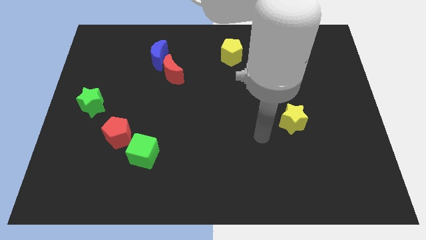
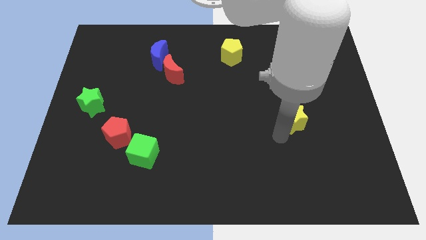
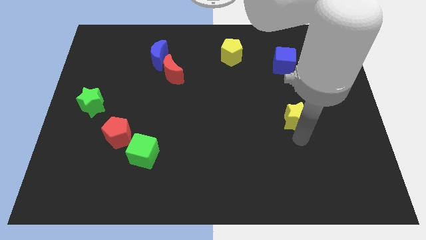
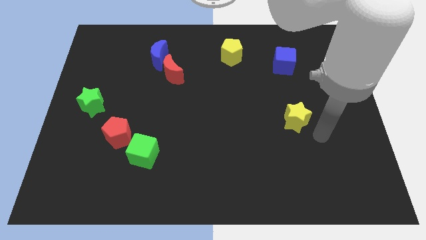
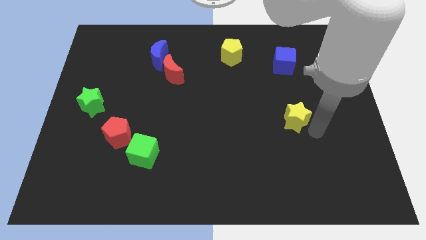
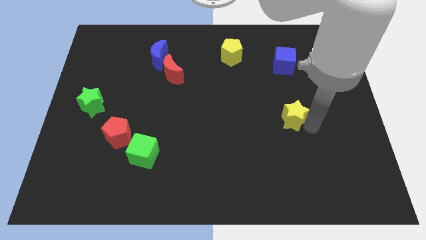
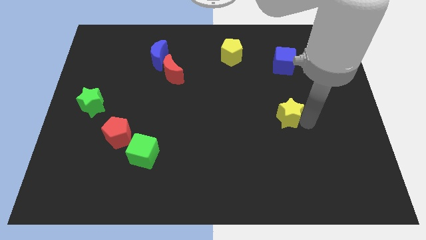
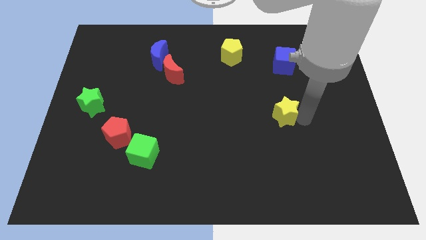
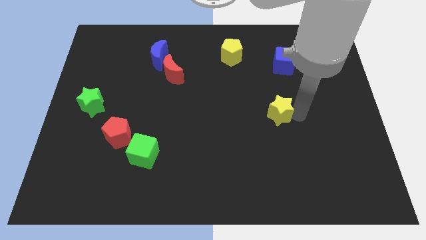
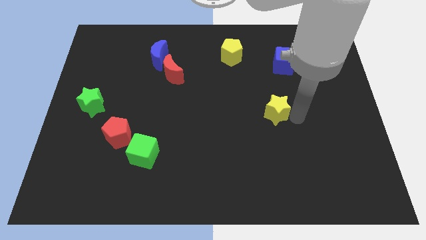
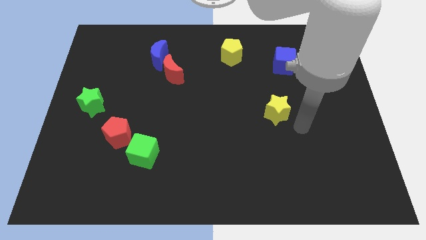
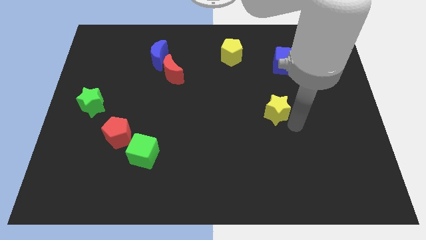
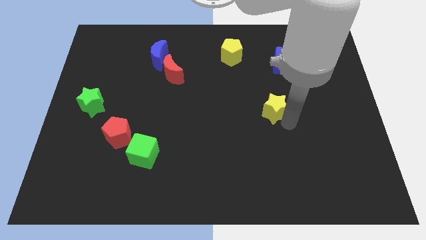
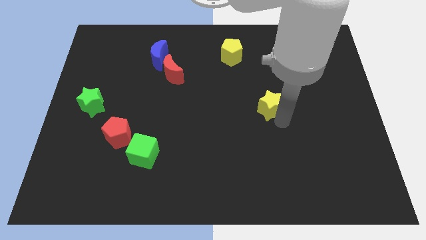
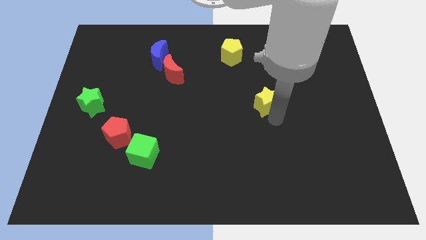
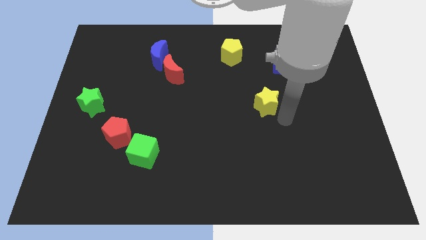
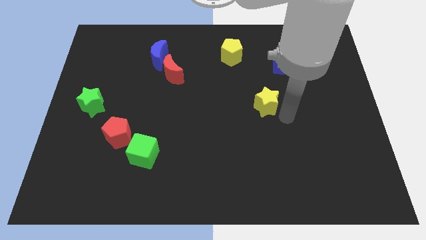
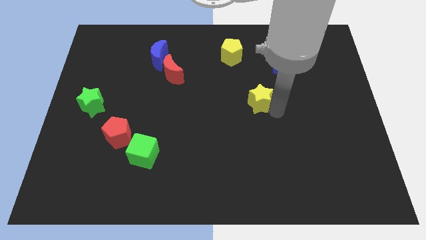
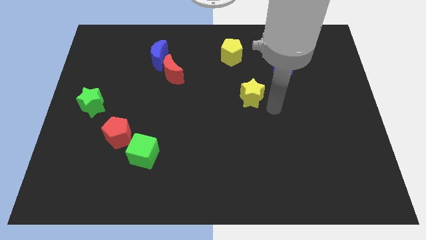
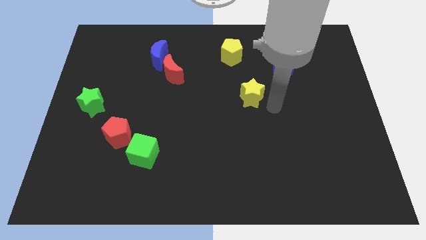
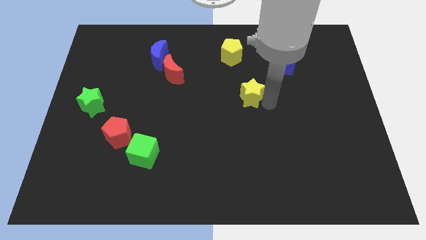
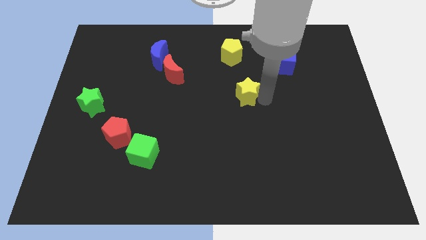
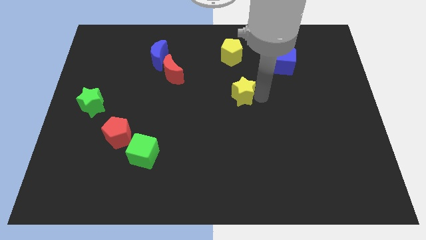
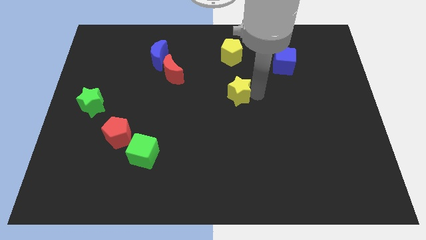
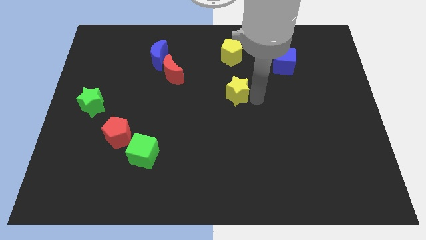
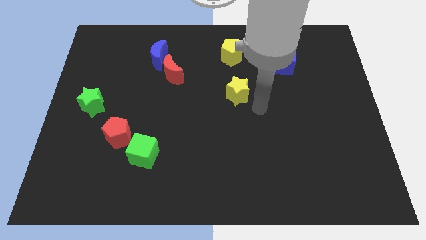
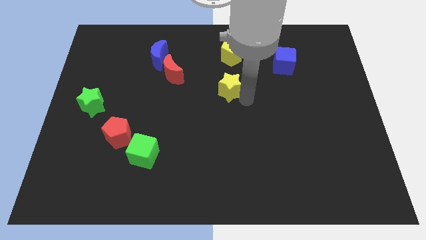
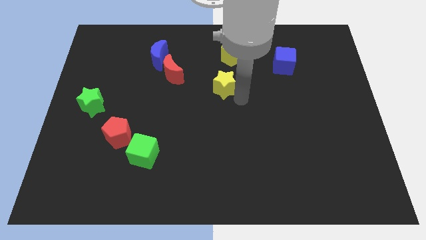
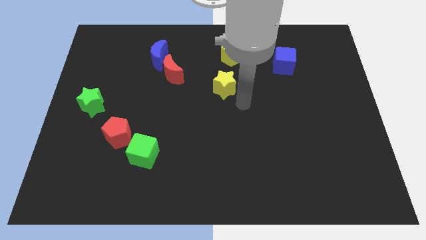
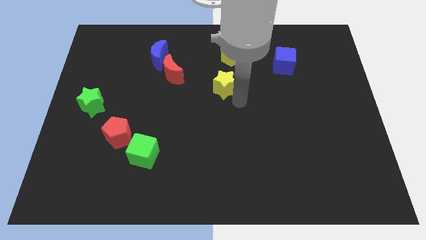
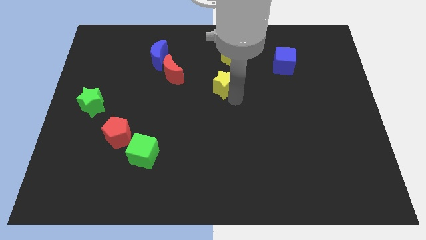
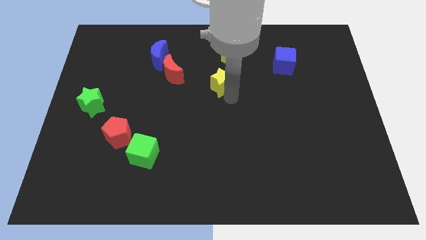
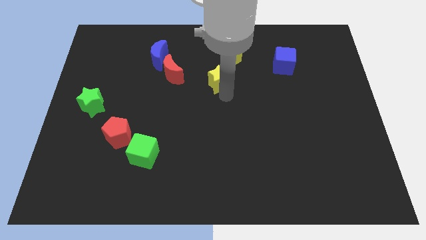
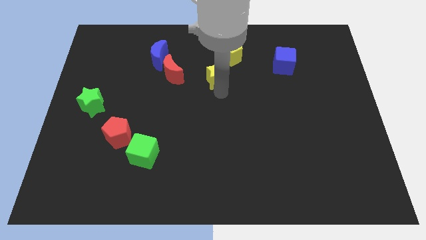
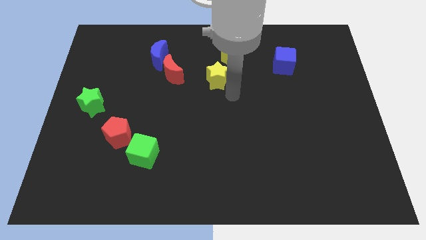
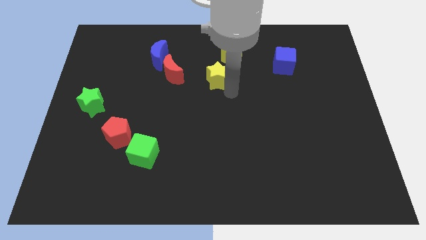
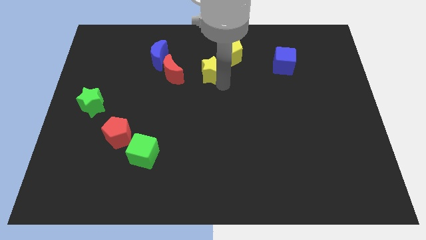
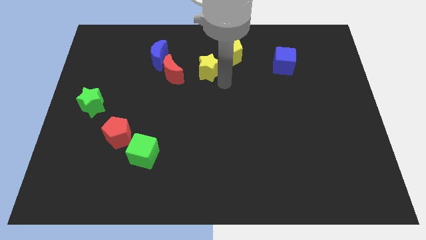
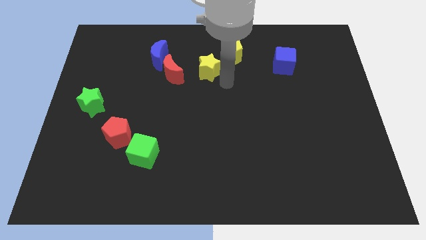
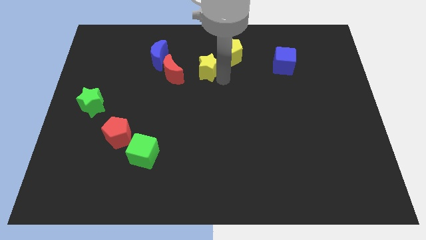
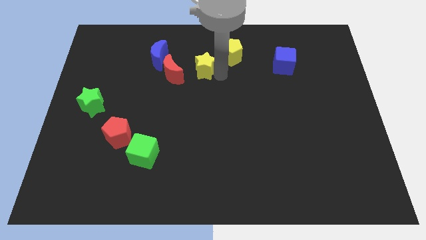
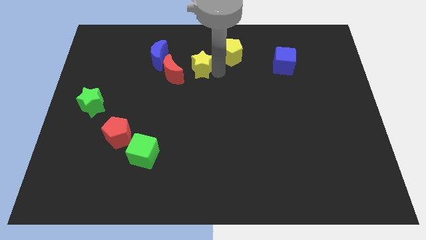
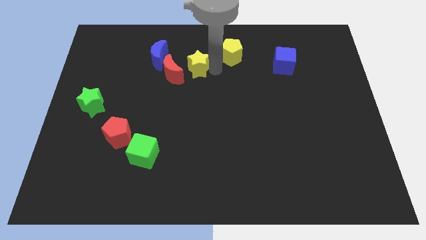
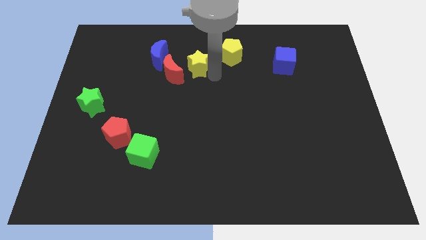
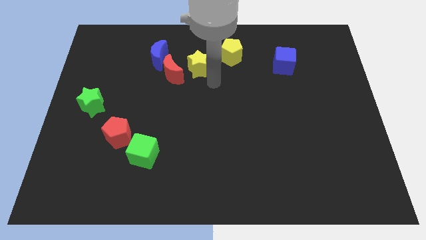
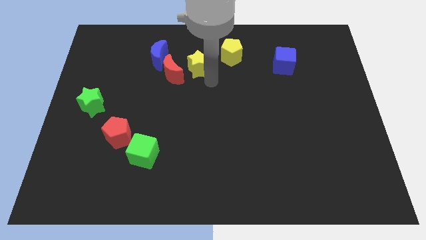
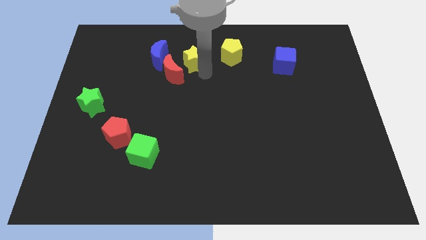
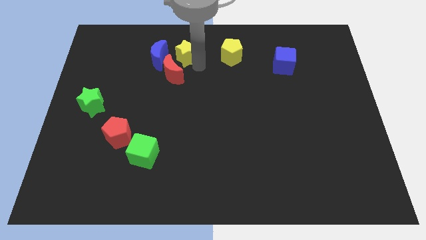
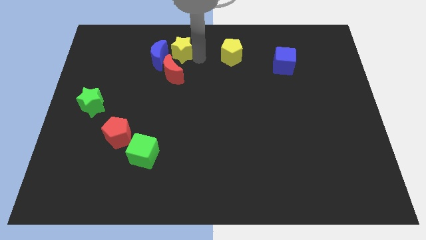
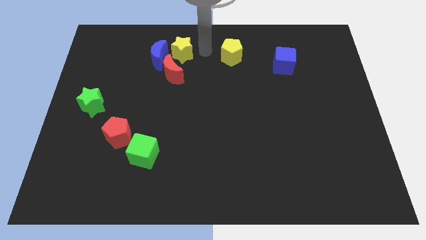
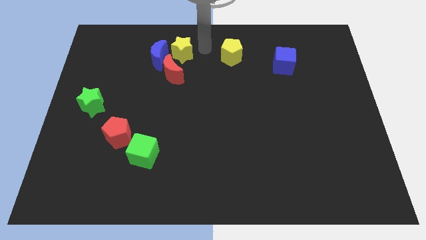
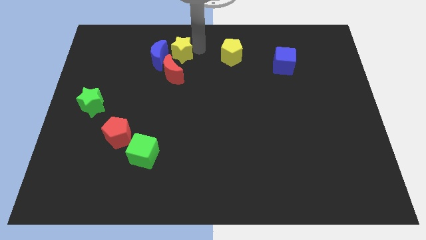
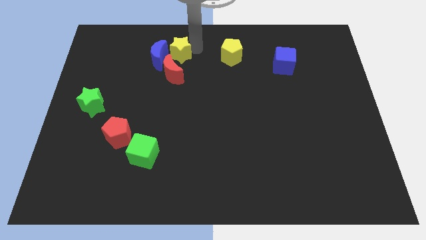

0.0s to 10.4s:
put the yellow star towards the blue moon

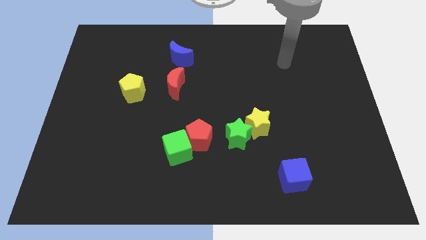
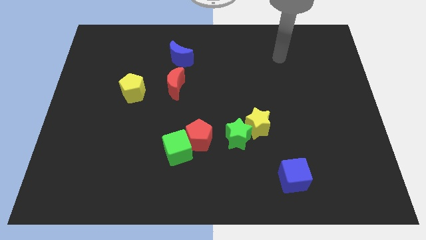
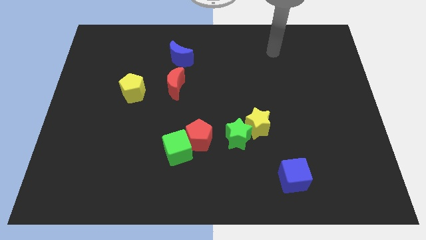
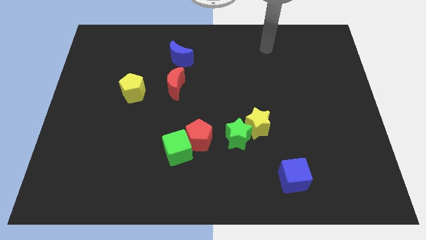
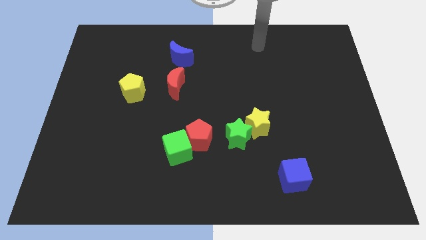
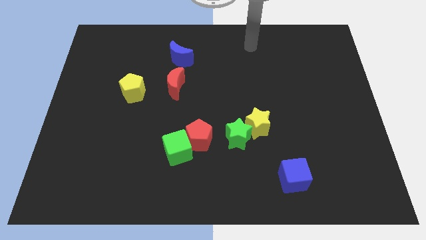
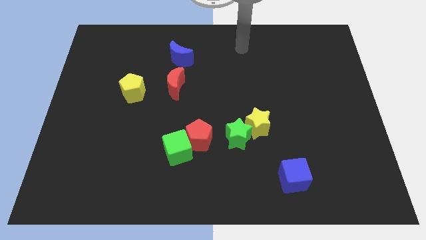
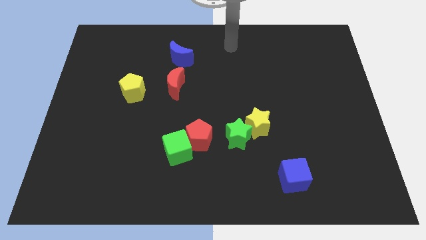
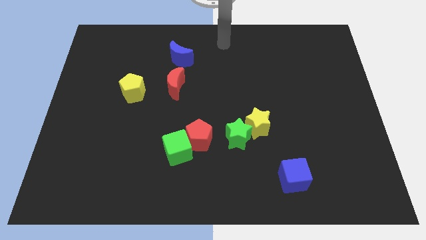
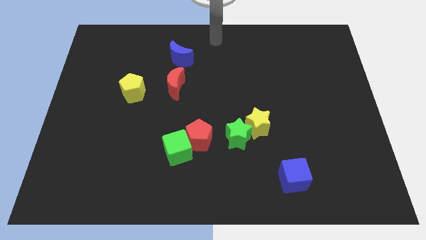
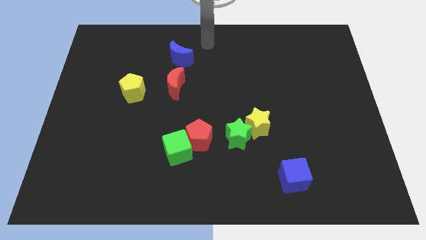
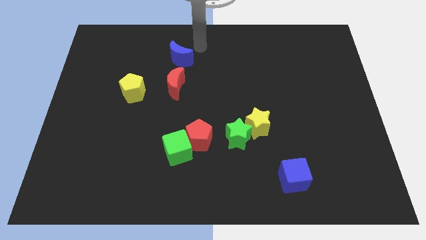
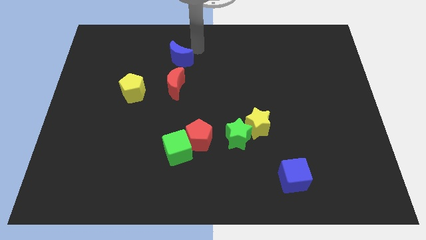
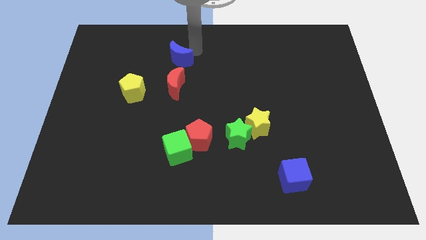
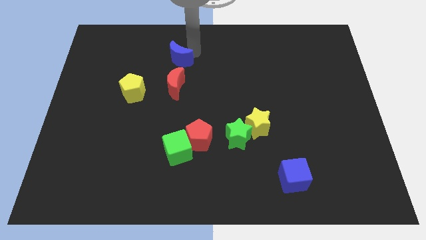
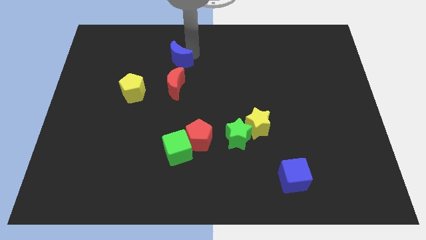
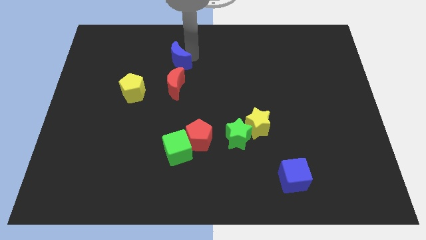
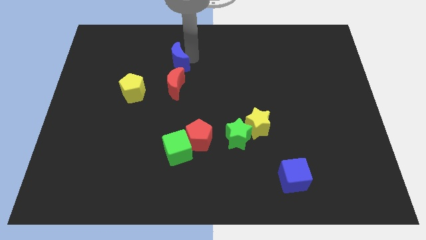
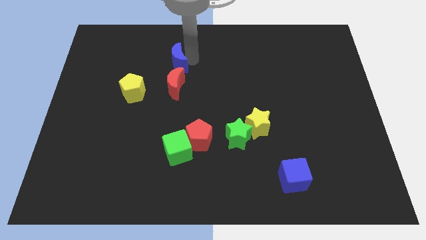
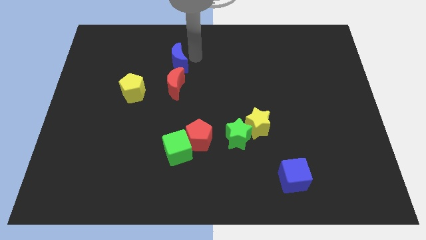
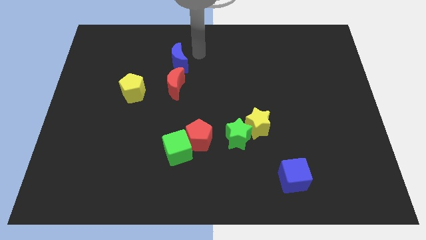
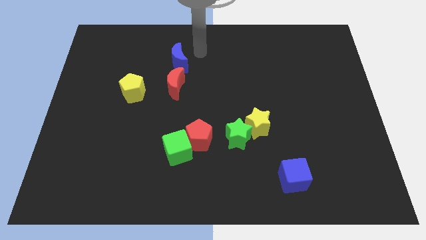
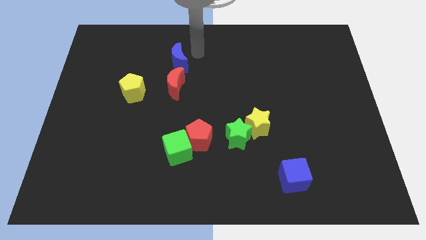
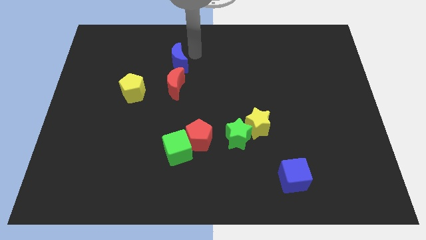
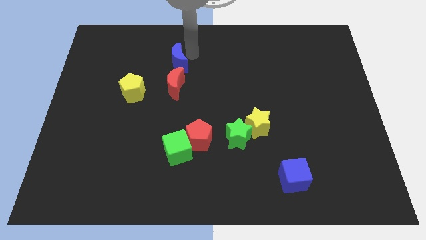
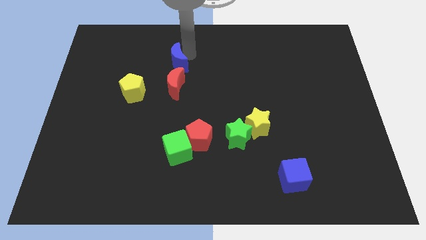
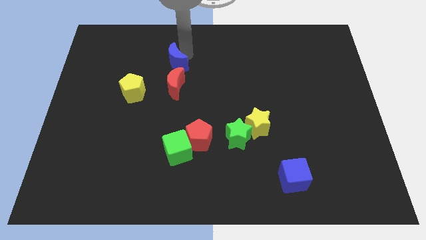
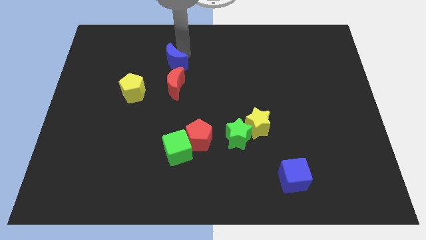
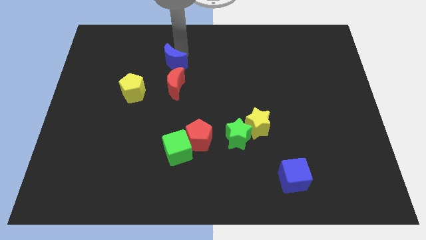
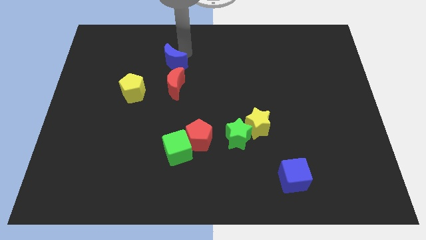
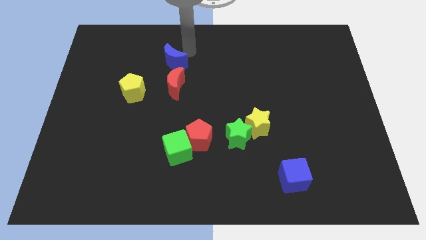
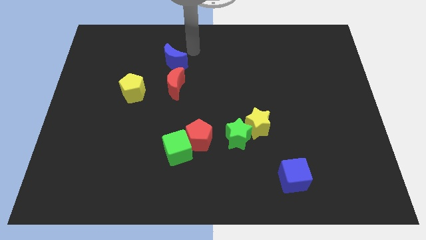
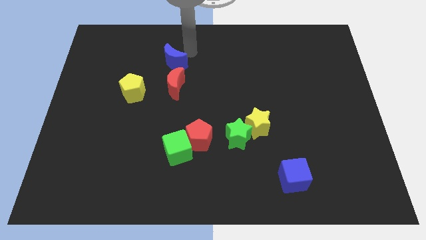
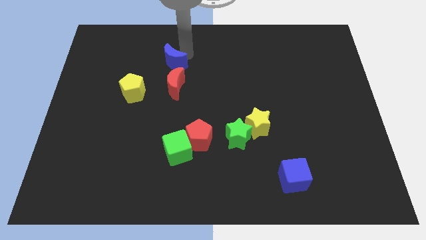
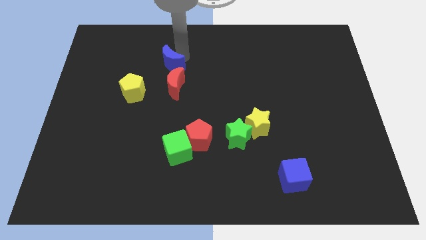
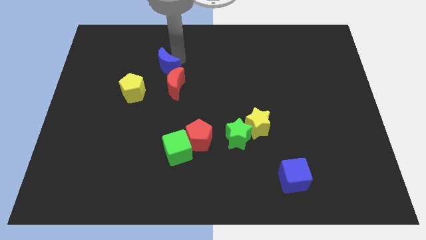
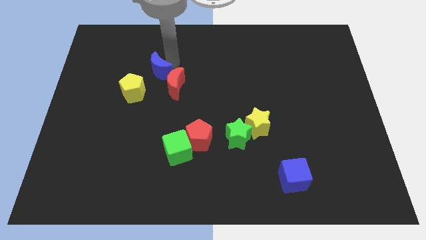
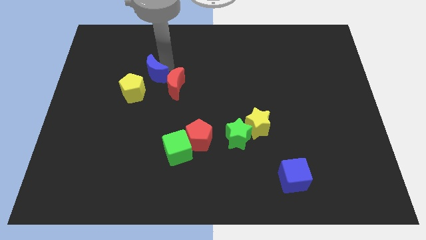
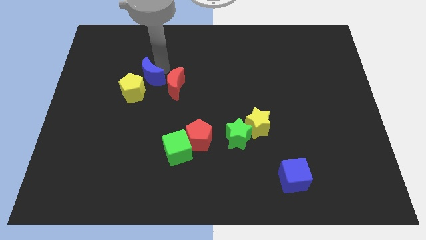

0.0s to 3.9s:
push the blue moon towards the yellow pentagon
